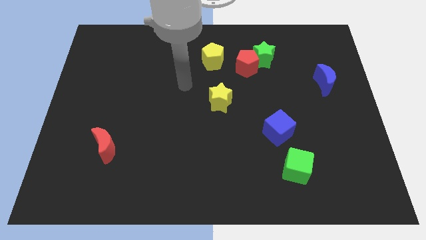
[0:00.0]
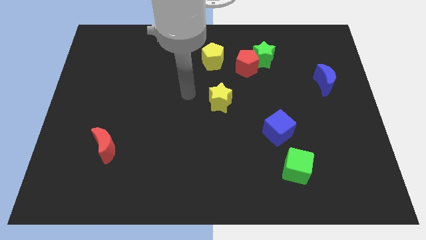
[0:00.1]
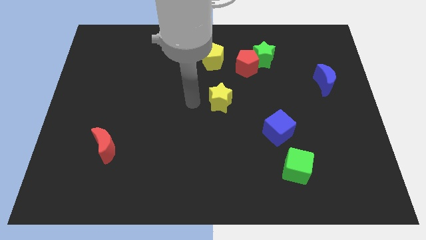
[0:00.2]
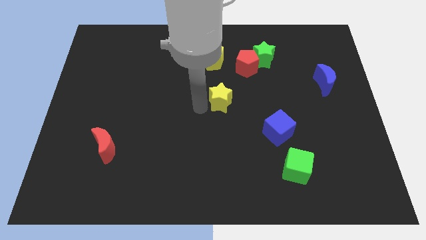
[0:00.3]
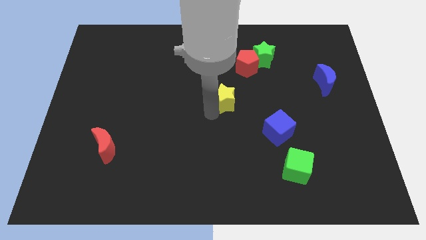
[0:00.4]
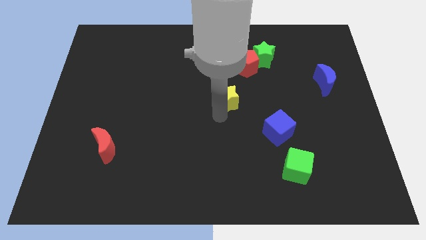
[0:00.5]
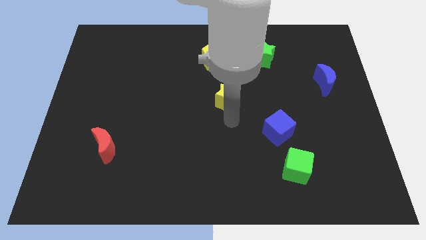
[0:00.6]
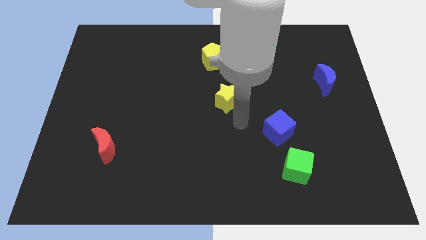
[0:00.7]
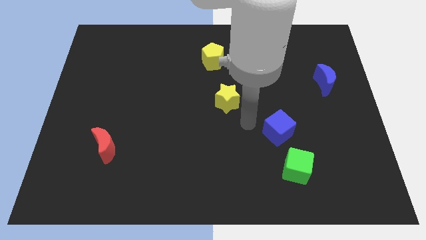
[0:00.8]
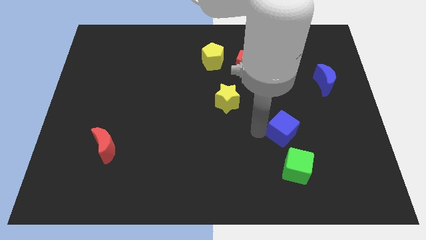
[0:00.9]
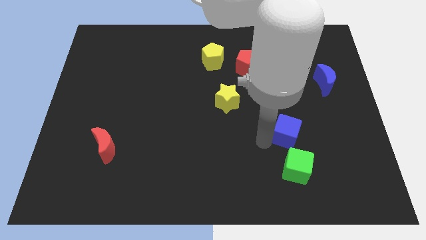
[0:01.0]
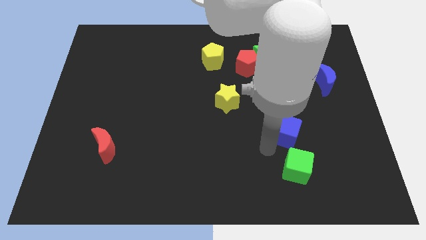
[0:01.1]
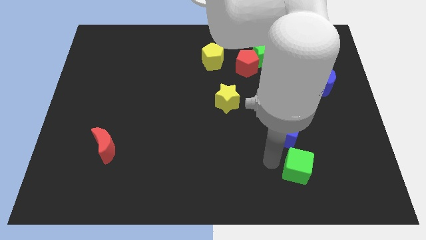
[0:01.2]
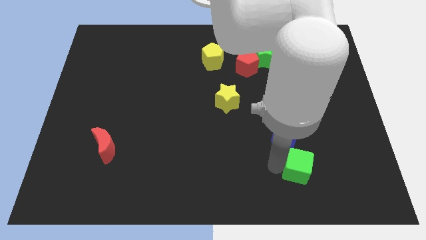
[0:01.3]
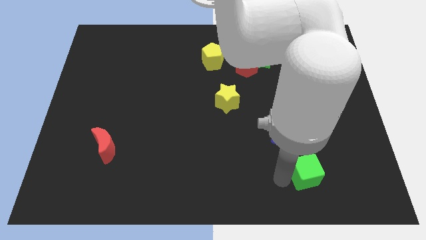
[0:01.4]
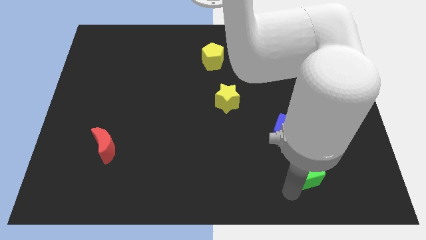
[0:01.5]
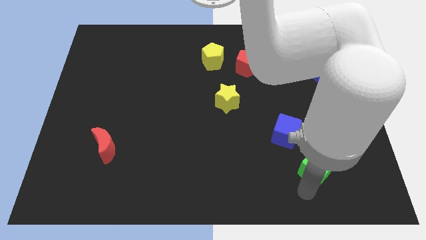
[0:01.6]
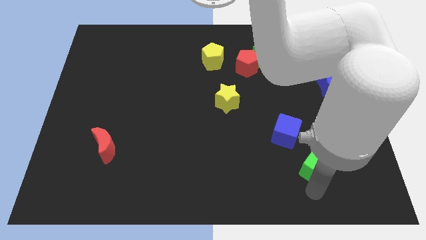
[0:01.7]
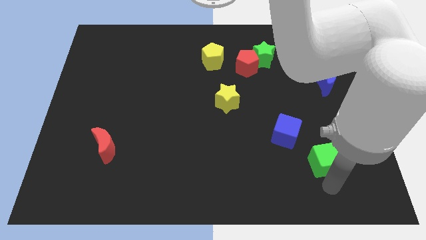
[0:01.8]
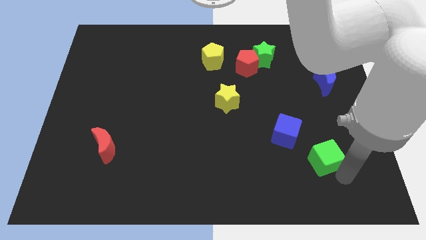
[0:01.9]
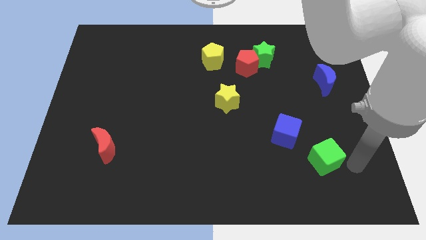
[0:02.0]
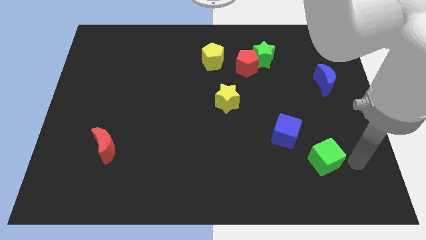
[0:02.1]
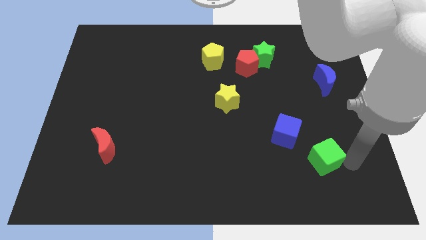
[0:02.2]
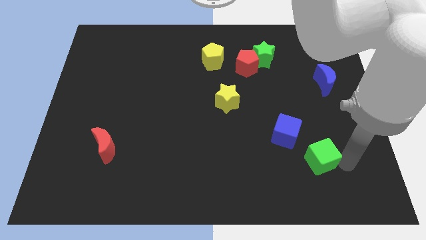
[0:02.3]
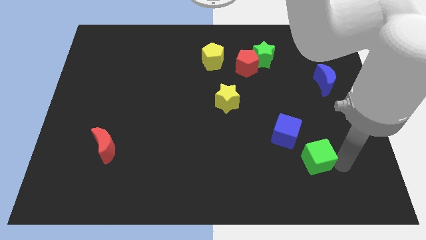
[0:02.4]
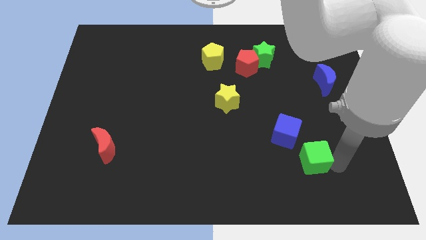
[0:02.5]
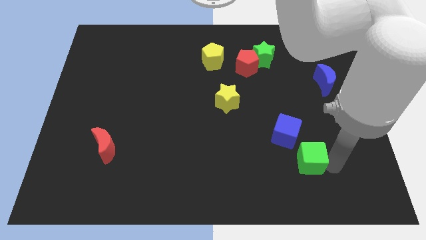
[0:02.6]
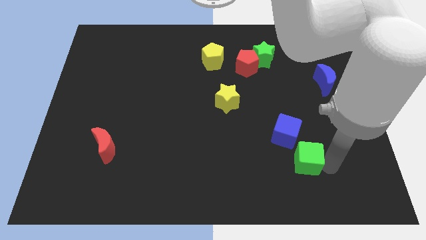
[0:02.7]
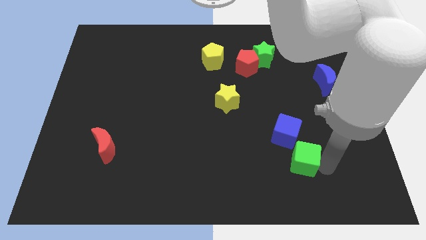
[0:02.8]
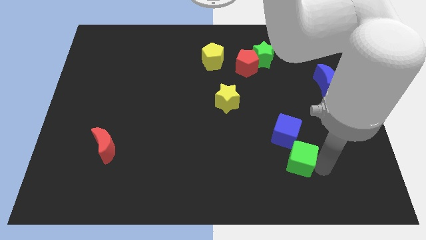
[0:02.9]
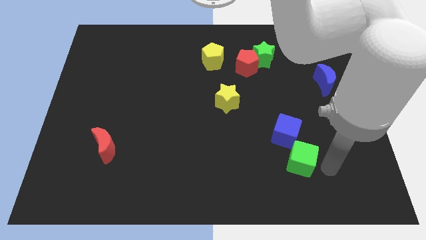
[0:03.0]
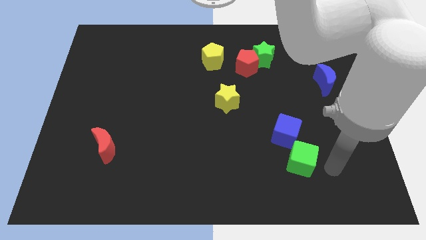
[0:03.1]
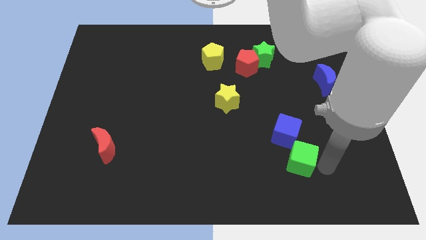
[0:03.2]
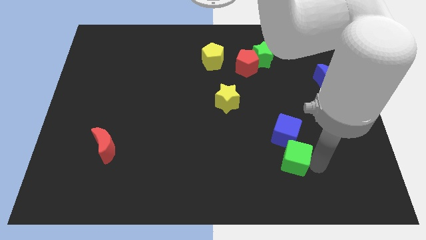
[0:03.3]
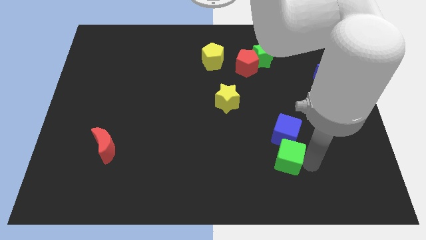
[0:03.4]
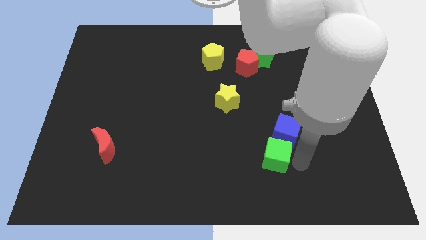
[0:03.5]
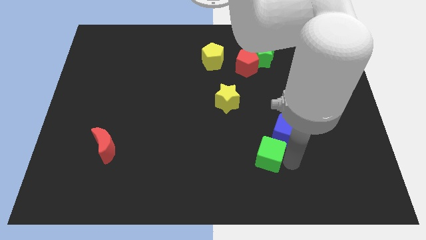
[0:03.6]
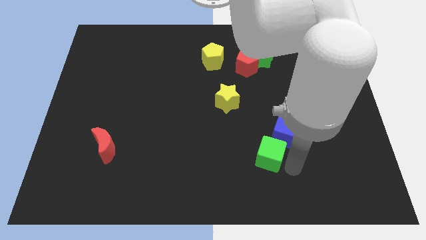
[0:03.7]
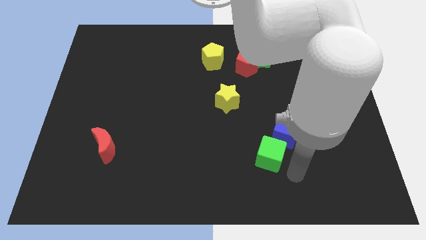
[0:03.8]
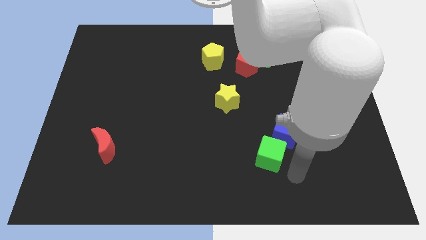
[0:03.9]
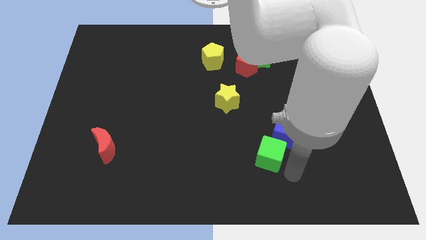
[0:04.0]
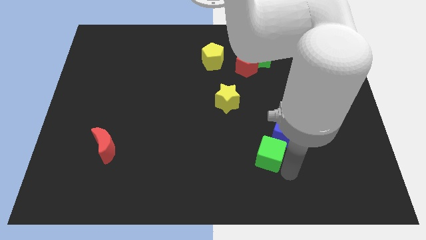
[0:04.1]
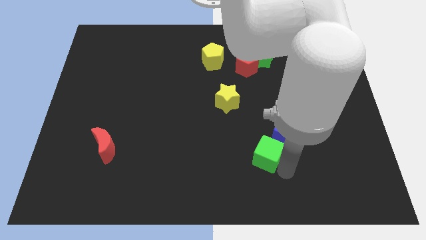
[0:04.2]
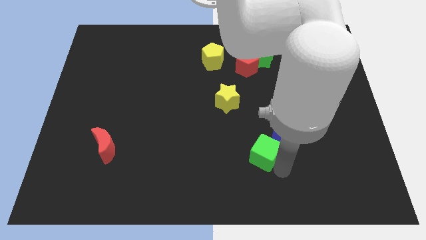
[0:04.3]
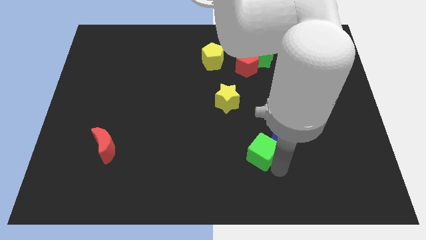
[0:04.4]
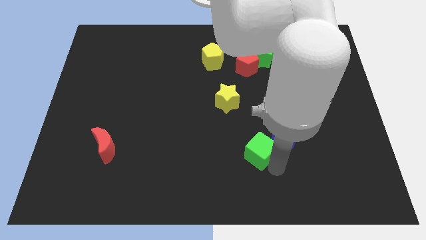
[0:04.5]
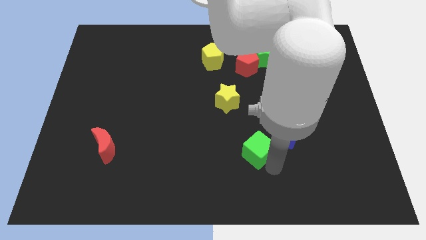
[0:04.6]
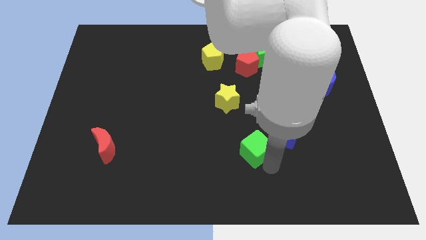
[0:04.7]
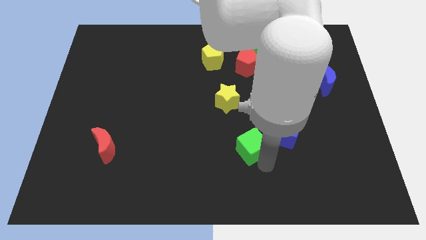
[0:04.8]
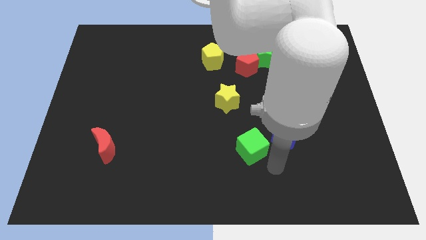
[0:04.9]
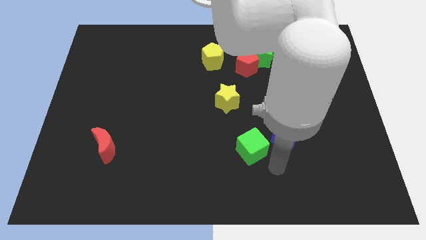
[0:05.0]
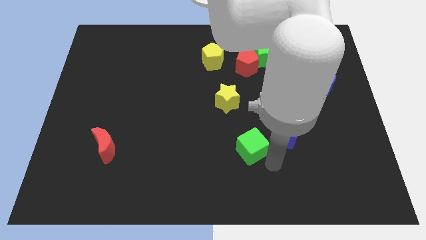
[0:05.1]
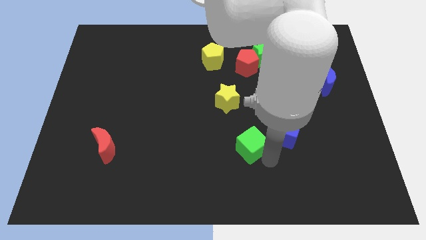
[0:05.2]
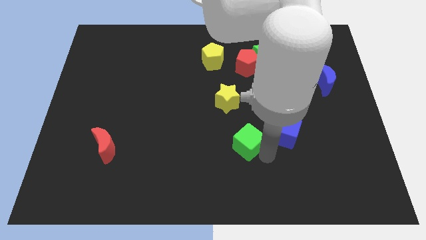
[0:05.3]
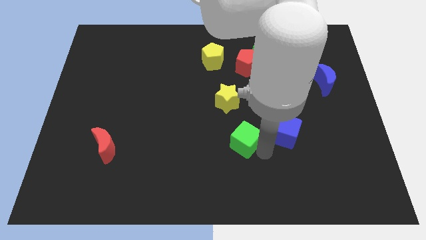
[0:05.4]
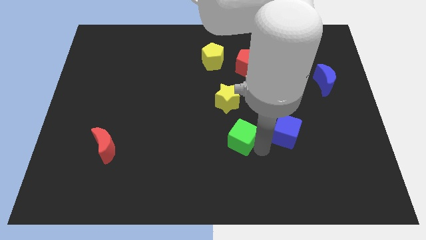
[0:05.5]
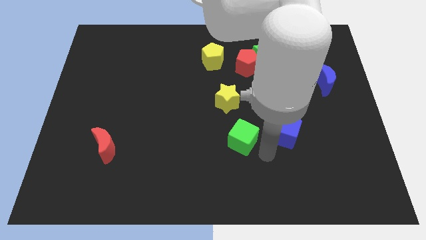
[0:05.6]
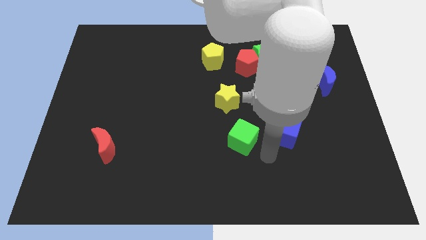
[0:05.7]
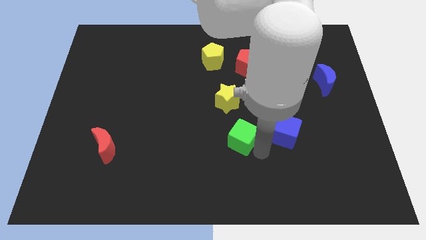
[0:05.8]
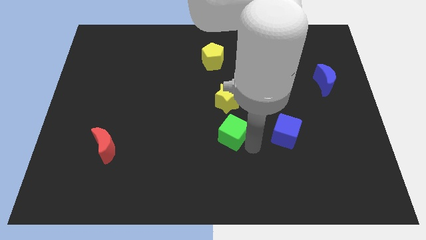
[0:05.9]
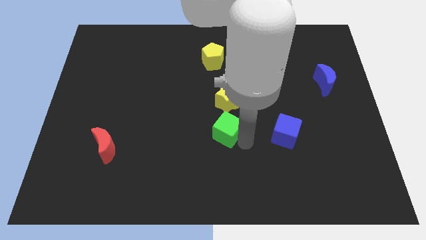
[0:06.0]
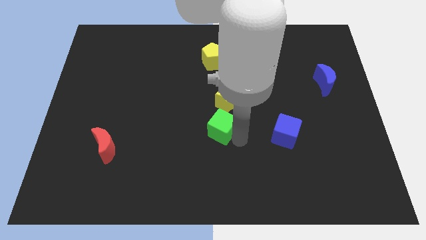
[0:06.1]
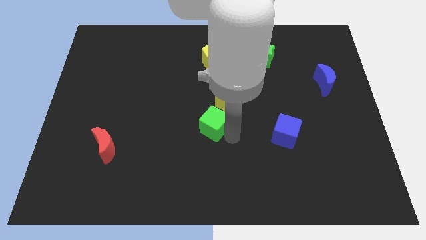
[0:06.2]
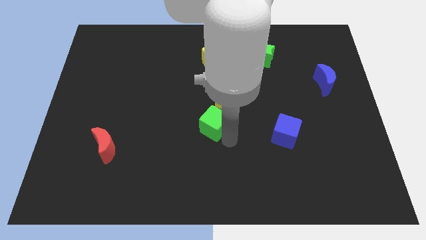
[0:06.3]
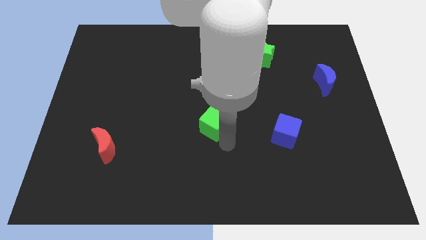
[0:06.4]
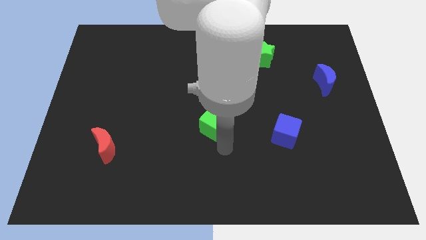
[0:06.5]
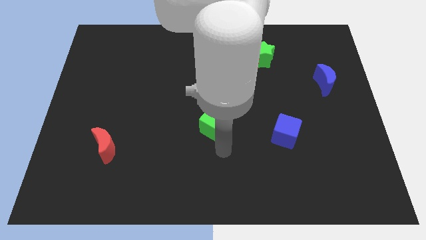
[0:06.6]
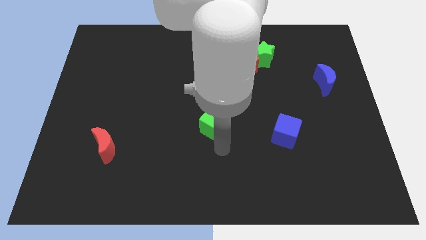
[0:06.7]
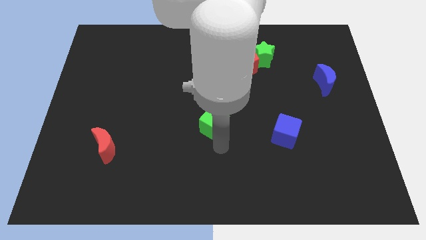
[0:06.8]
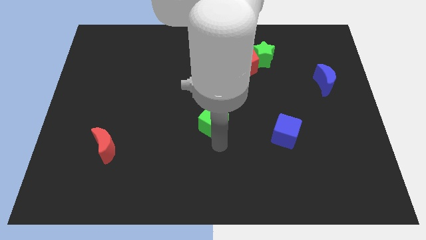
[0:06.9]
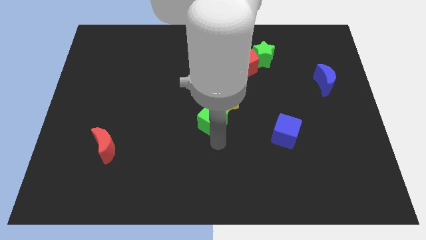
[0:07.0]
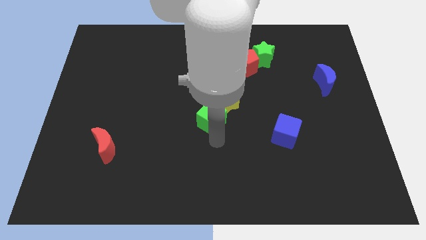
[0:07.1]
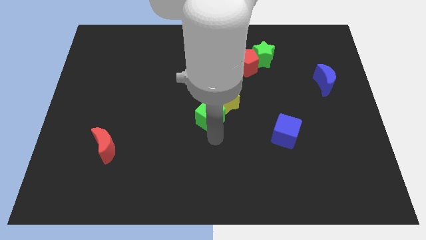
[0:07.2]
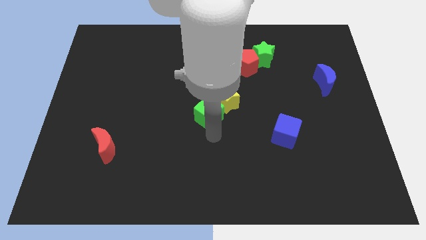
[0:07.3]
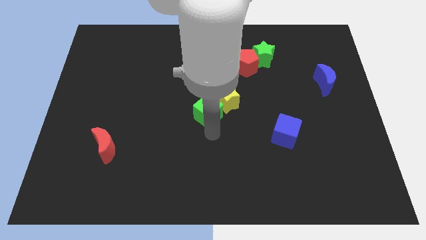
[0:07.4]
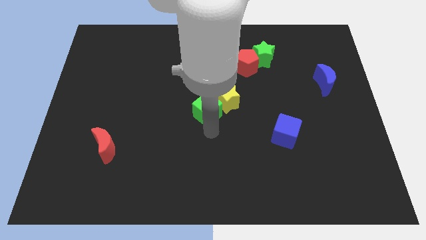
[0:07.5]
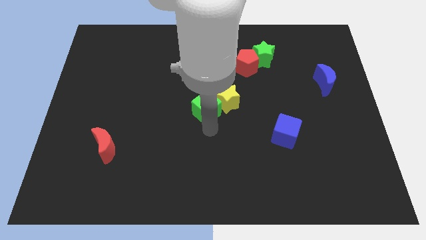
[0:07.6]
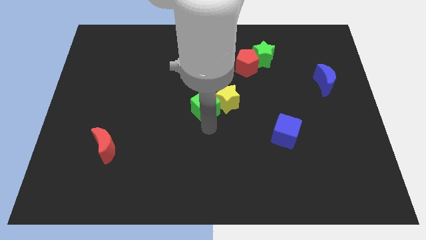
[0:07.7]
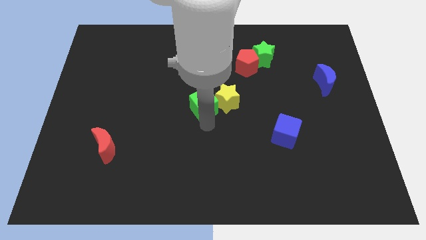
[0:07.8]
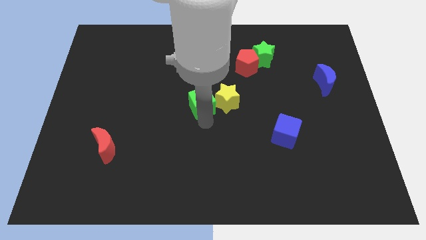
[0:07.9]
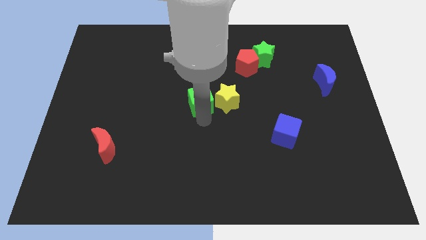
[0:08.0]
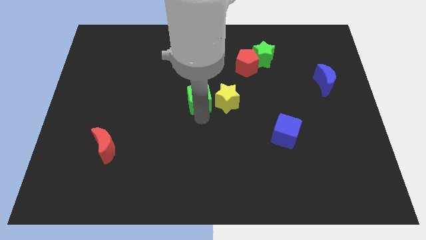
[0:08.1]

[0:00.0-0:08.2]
move the green cube to the top left side of the yellow star
